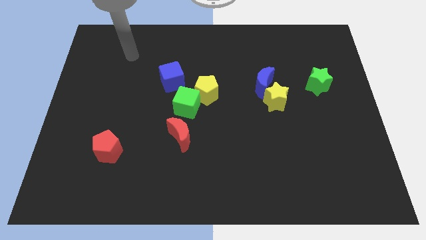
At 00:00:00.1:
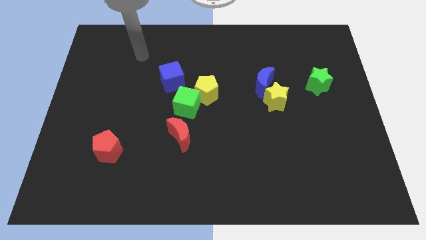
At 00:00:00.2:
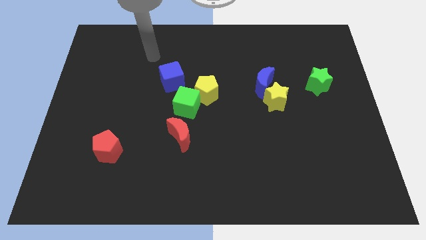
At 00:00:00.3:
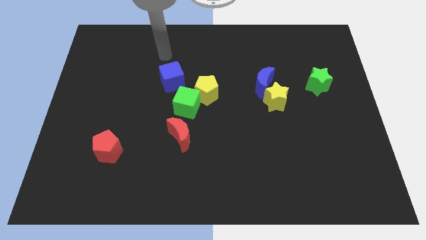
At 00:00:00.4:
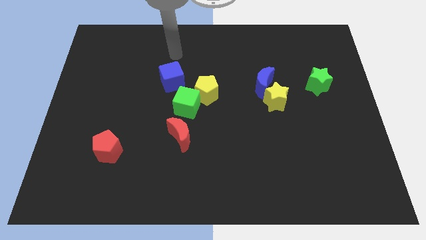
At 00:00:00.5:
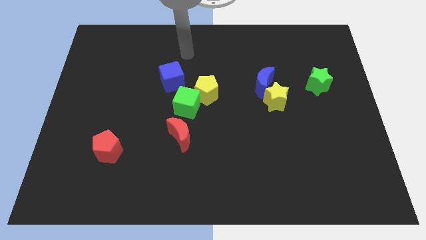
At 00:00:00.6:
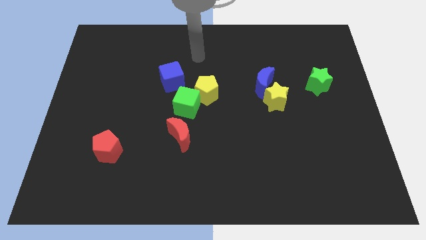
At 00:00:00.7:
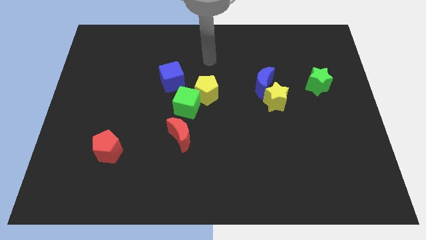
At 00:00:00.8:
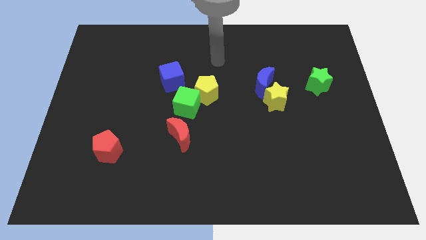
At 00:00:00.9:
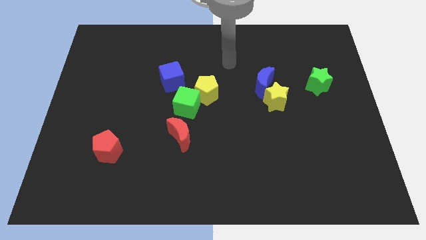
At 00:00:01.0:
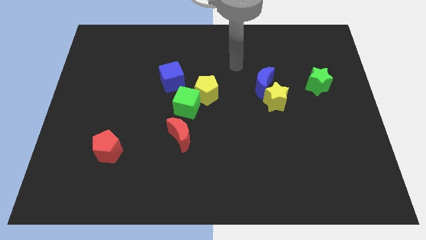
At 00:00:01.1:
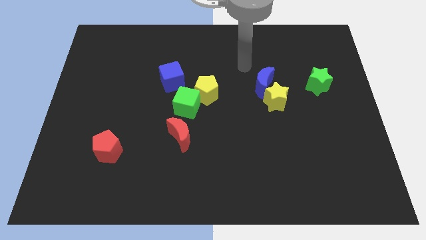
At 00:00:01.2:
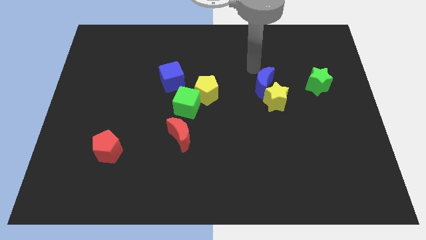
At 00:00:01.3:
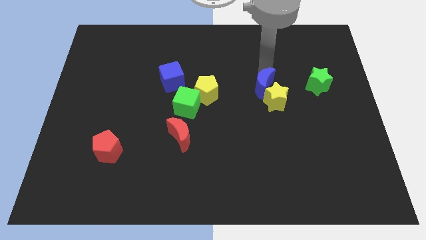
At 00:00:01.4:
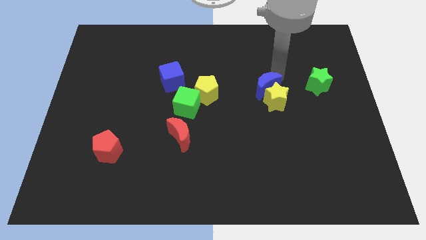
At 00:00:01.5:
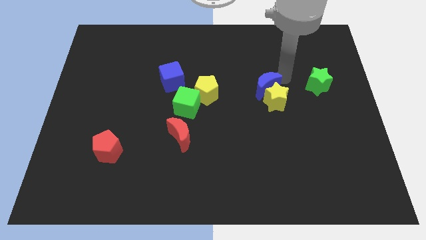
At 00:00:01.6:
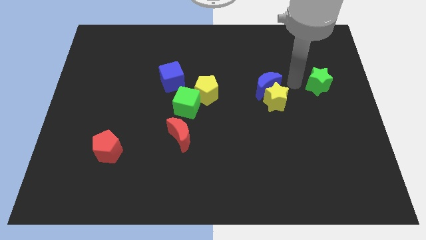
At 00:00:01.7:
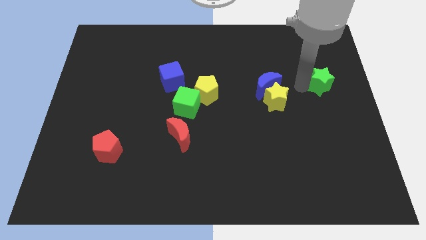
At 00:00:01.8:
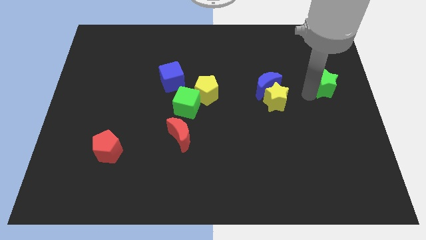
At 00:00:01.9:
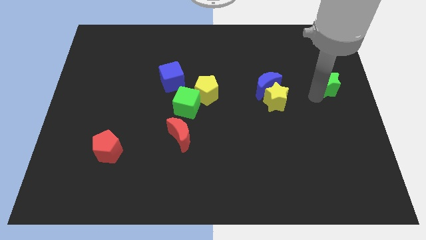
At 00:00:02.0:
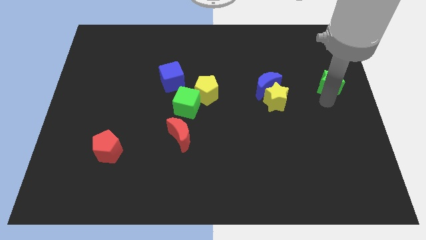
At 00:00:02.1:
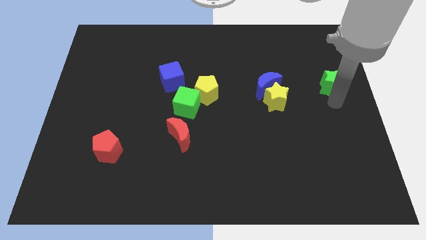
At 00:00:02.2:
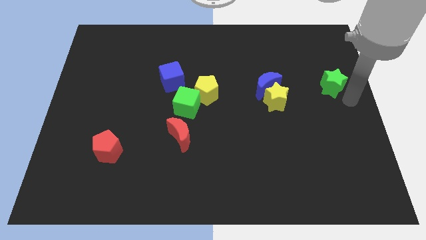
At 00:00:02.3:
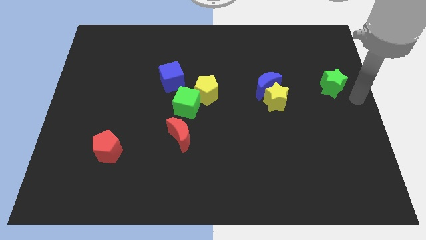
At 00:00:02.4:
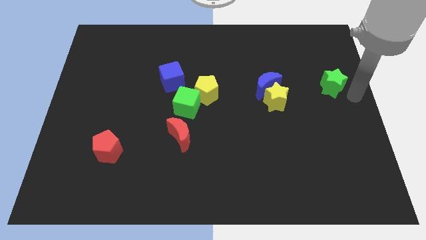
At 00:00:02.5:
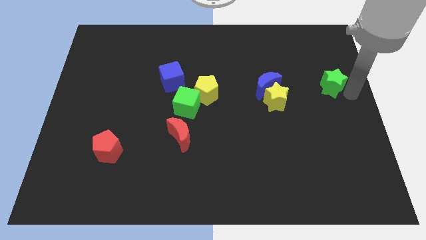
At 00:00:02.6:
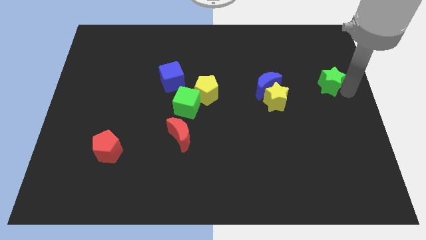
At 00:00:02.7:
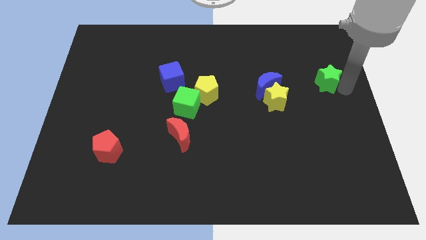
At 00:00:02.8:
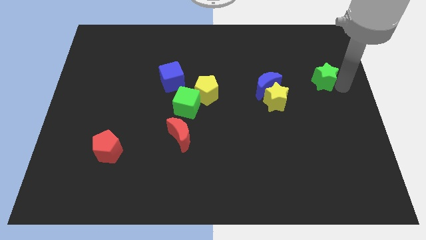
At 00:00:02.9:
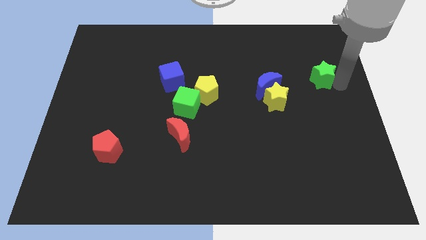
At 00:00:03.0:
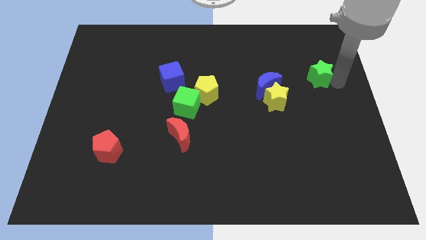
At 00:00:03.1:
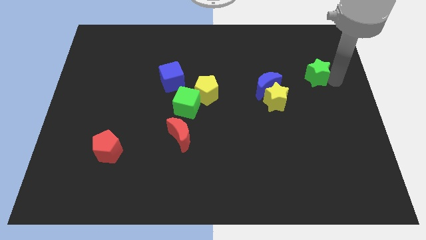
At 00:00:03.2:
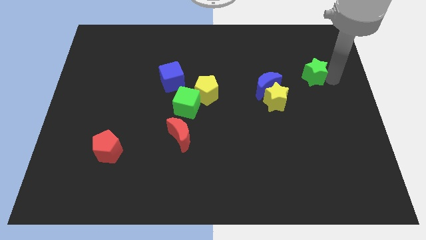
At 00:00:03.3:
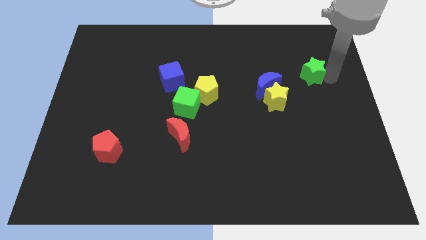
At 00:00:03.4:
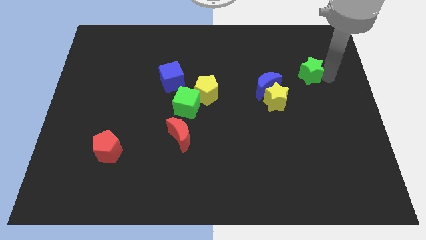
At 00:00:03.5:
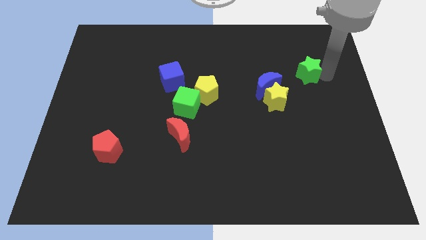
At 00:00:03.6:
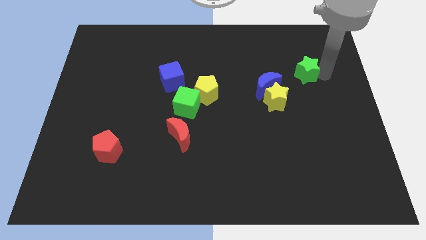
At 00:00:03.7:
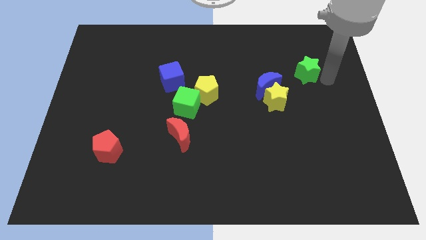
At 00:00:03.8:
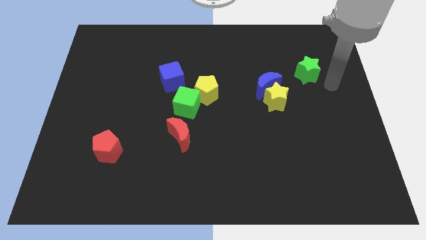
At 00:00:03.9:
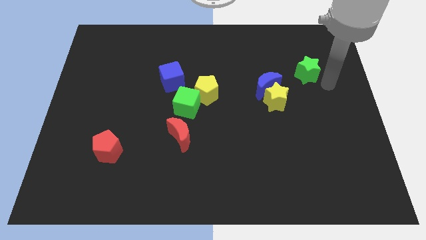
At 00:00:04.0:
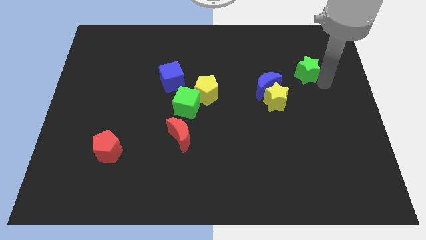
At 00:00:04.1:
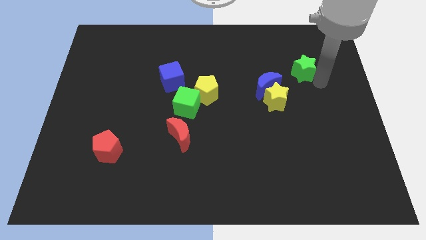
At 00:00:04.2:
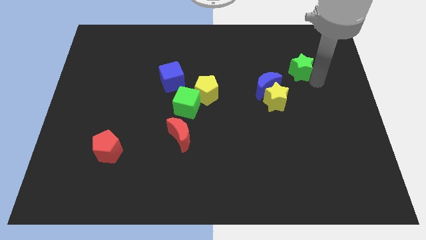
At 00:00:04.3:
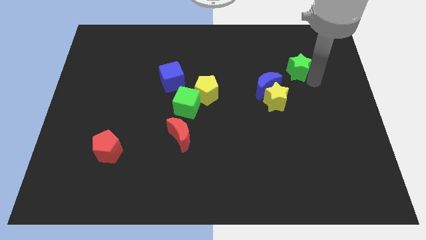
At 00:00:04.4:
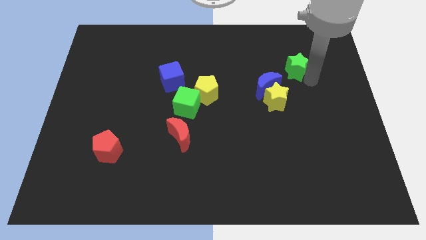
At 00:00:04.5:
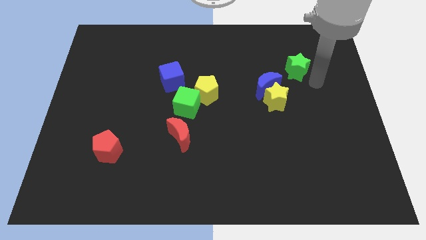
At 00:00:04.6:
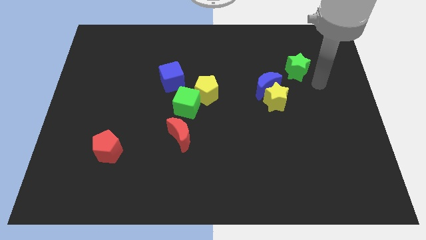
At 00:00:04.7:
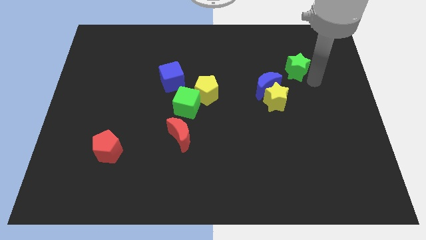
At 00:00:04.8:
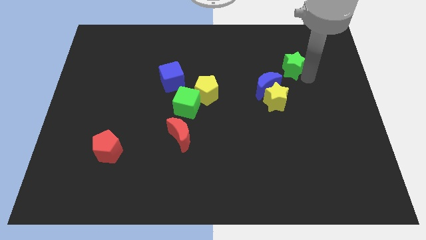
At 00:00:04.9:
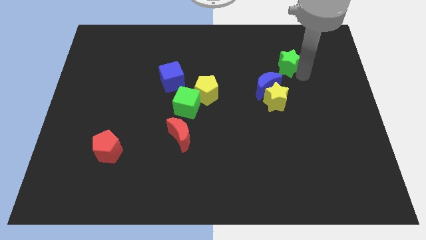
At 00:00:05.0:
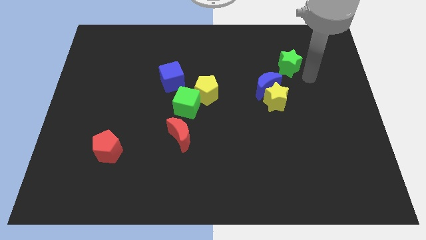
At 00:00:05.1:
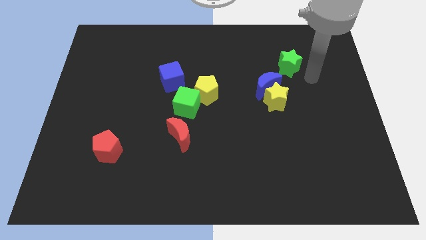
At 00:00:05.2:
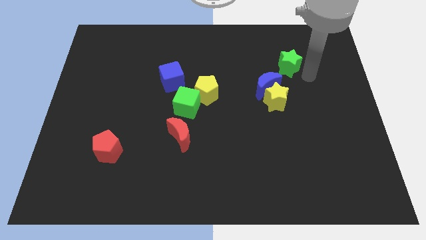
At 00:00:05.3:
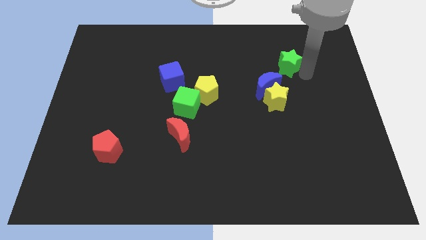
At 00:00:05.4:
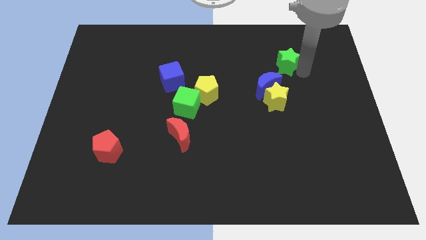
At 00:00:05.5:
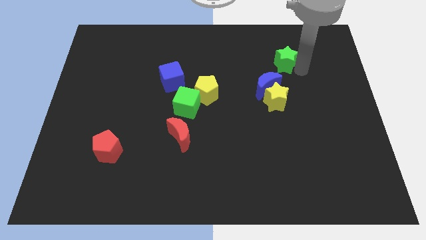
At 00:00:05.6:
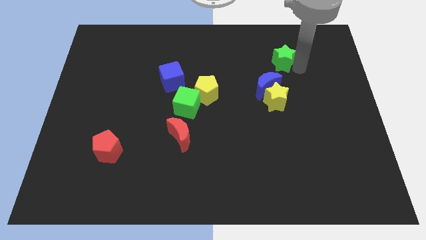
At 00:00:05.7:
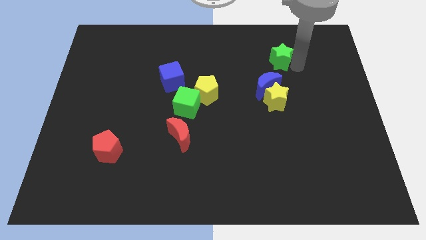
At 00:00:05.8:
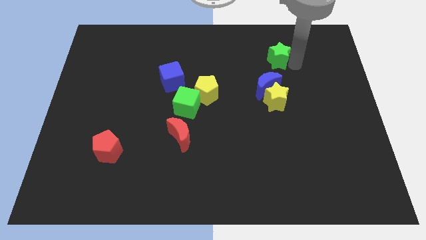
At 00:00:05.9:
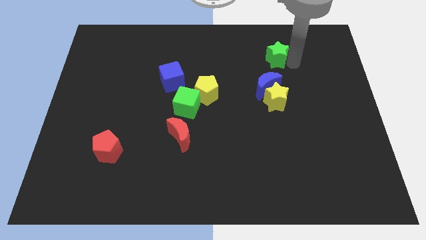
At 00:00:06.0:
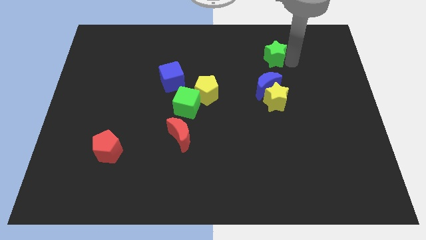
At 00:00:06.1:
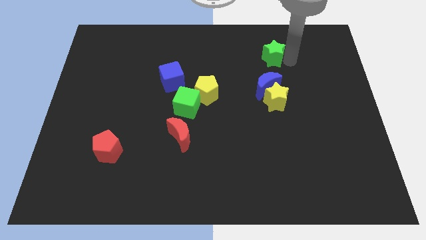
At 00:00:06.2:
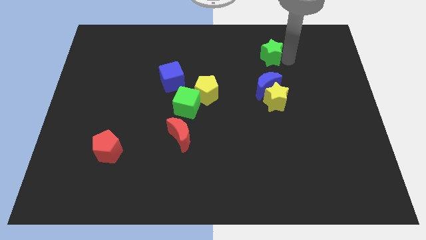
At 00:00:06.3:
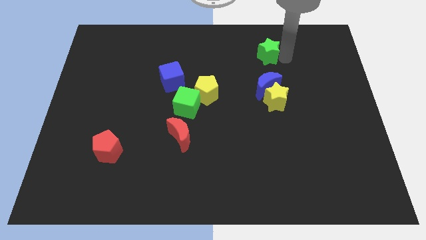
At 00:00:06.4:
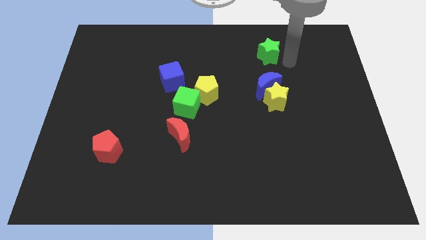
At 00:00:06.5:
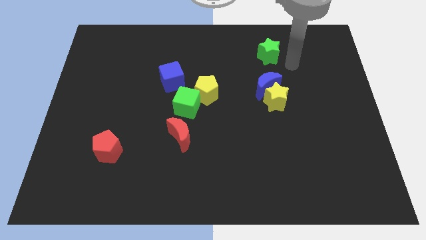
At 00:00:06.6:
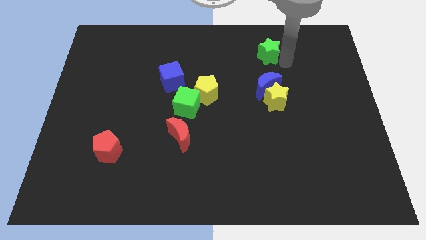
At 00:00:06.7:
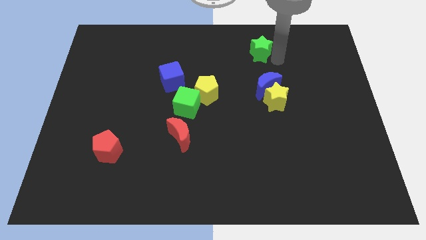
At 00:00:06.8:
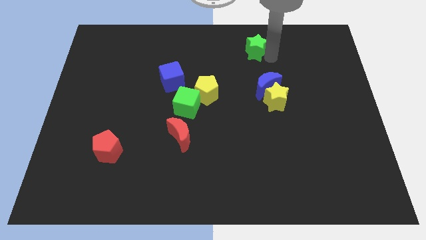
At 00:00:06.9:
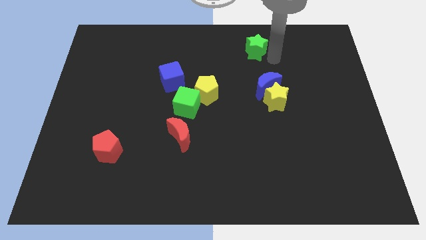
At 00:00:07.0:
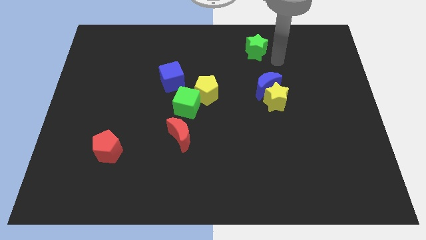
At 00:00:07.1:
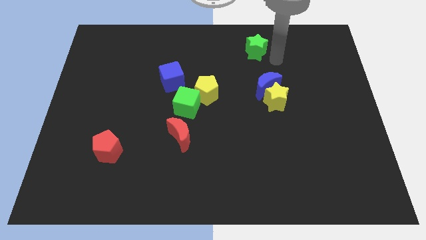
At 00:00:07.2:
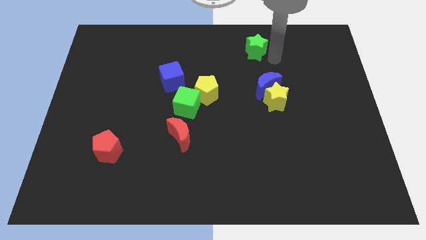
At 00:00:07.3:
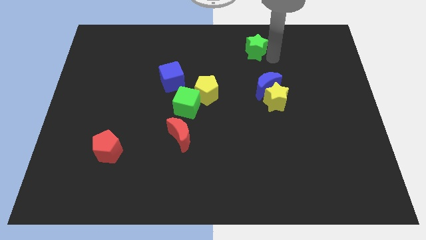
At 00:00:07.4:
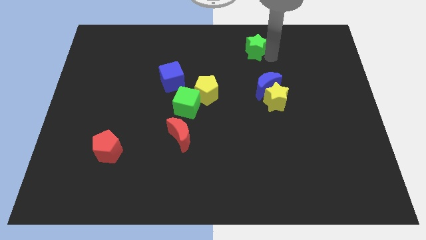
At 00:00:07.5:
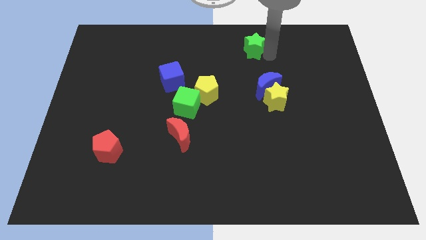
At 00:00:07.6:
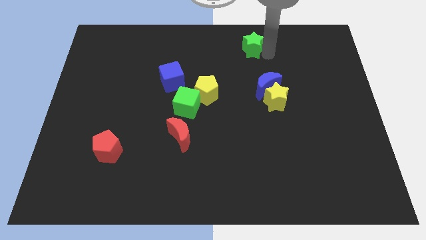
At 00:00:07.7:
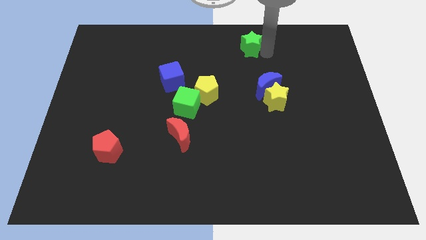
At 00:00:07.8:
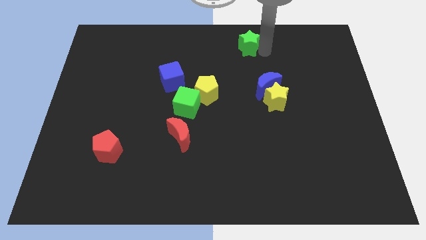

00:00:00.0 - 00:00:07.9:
push the green star to the top
